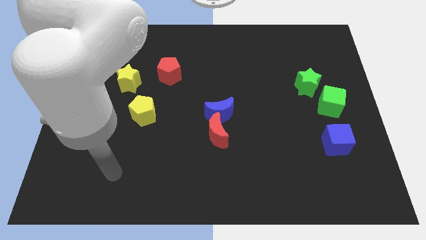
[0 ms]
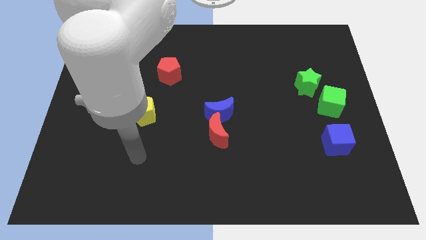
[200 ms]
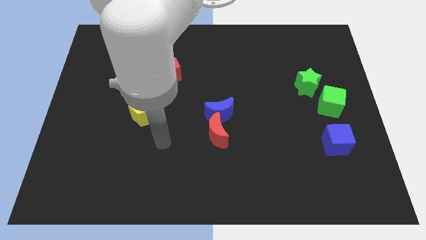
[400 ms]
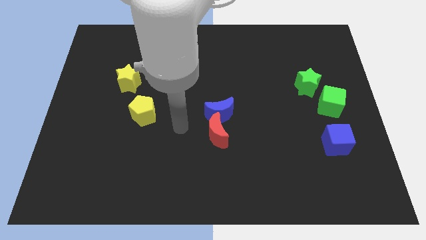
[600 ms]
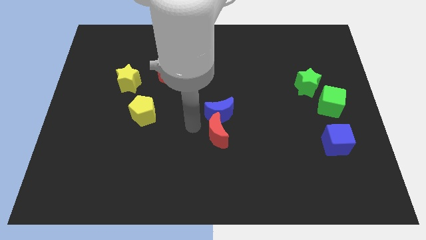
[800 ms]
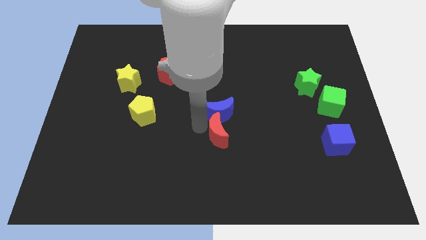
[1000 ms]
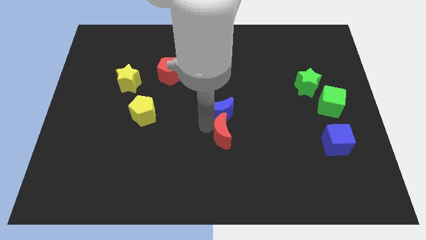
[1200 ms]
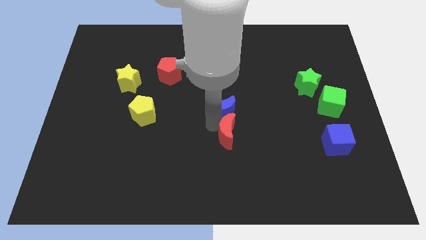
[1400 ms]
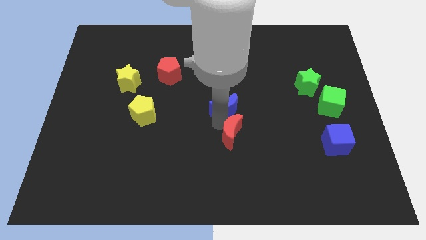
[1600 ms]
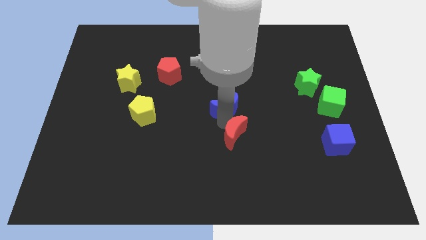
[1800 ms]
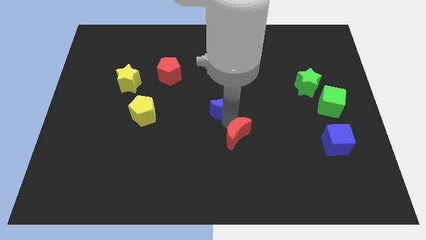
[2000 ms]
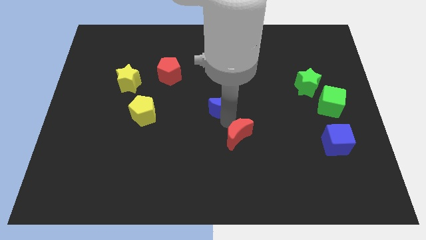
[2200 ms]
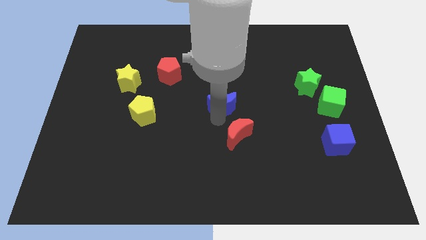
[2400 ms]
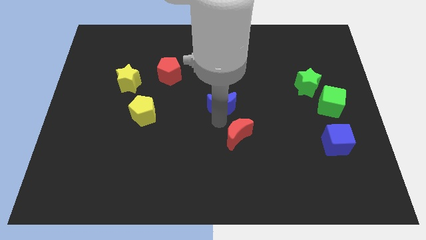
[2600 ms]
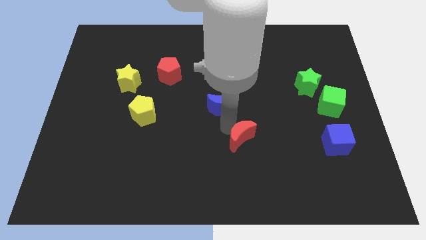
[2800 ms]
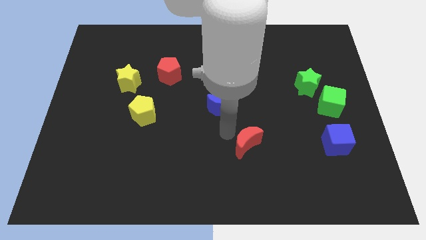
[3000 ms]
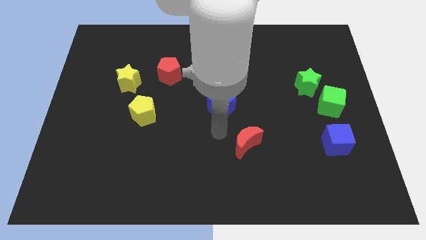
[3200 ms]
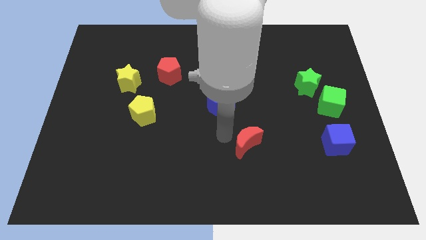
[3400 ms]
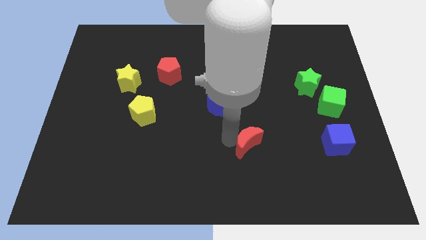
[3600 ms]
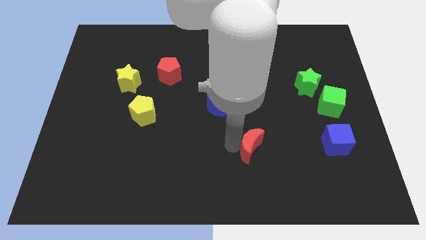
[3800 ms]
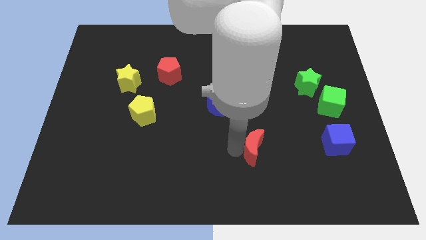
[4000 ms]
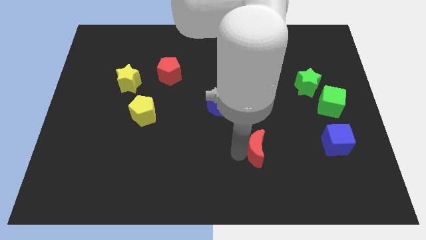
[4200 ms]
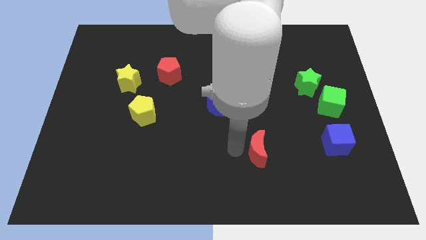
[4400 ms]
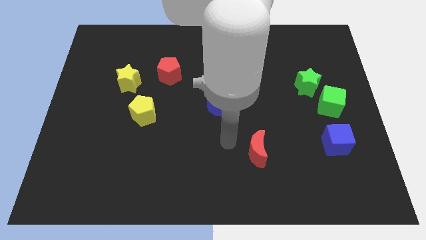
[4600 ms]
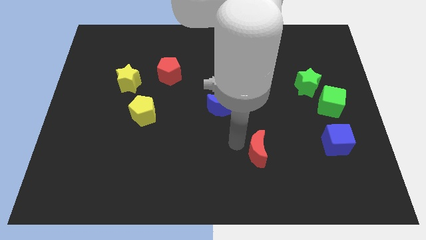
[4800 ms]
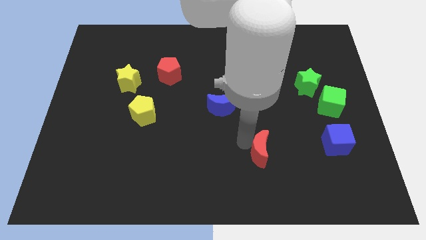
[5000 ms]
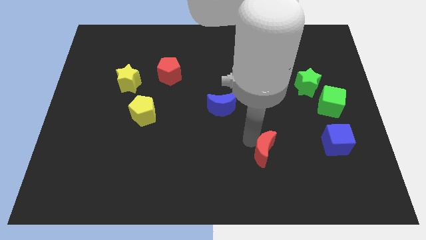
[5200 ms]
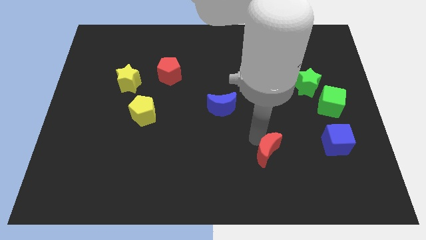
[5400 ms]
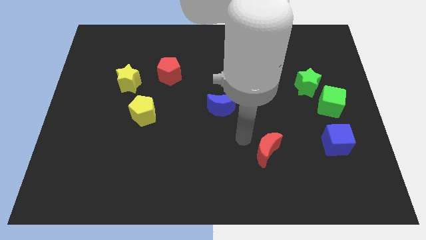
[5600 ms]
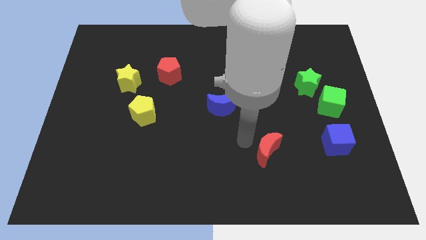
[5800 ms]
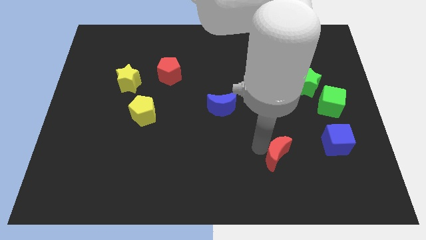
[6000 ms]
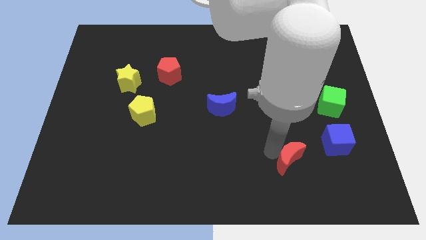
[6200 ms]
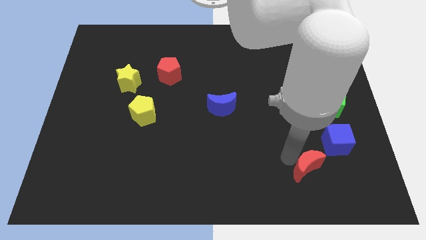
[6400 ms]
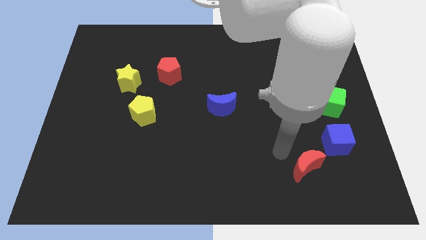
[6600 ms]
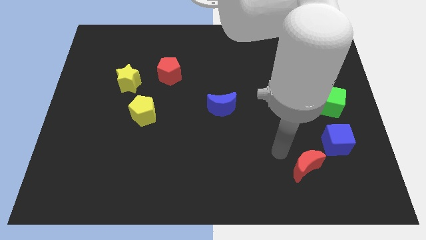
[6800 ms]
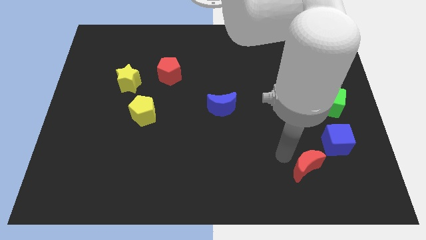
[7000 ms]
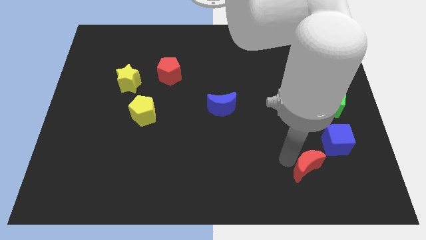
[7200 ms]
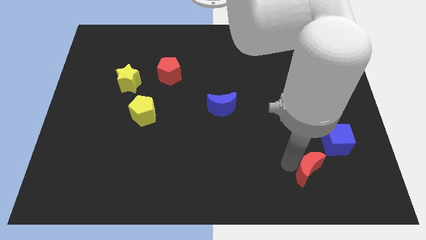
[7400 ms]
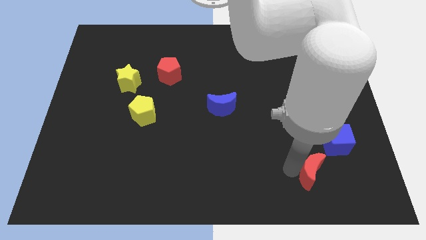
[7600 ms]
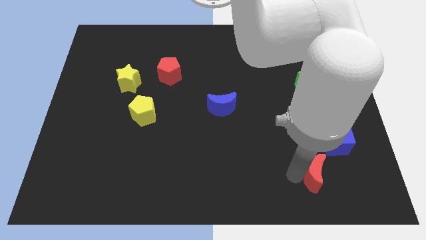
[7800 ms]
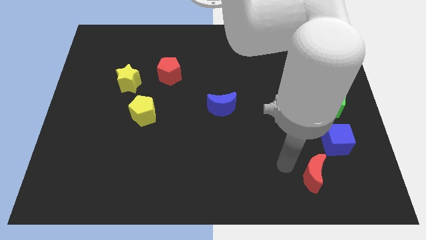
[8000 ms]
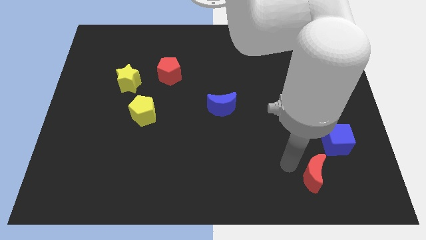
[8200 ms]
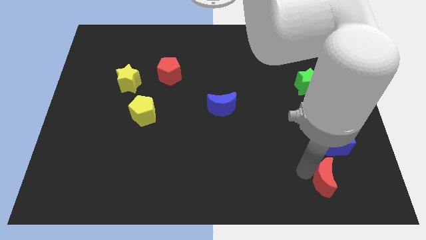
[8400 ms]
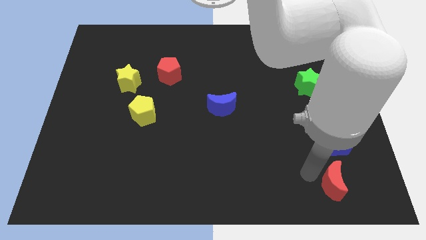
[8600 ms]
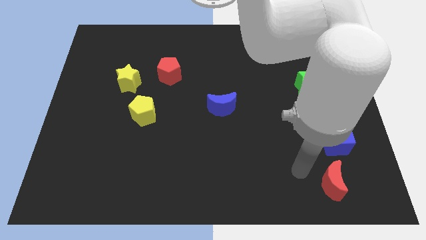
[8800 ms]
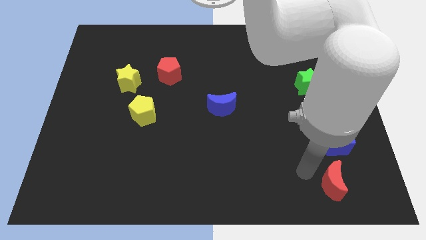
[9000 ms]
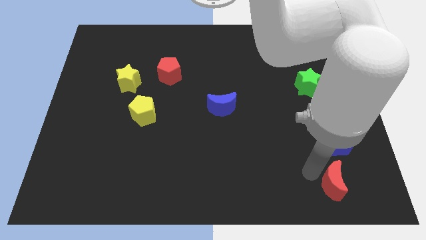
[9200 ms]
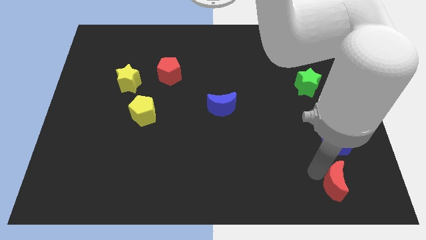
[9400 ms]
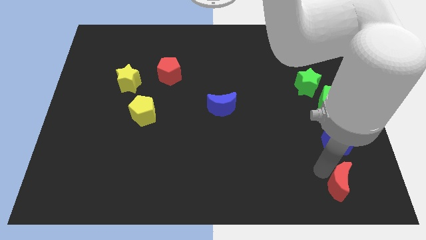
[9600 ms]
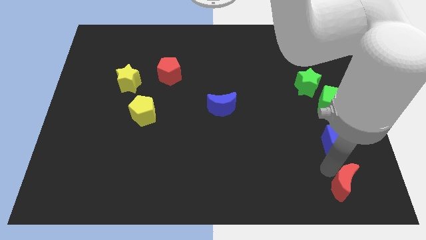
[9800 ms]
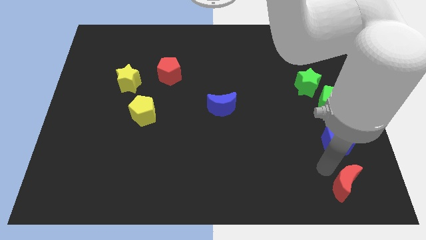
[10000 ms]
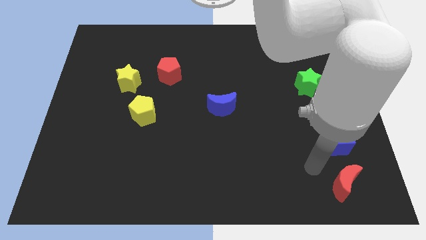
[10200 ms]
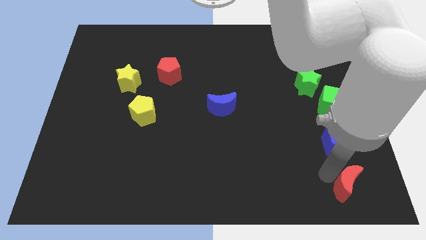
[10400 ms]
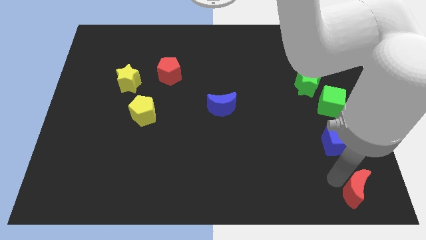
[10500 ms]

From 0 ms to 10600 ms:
move the red moon to the bottom right corner

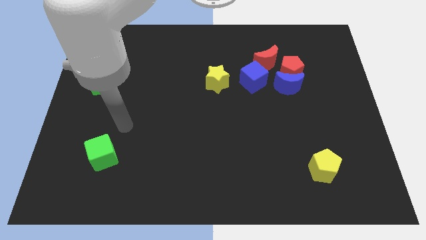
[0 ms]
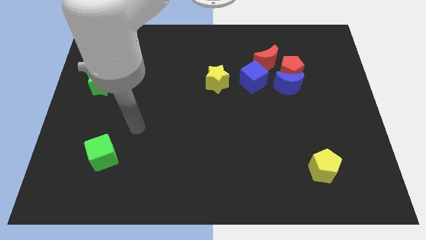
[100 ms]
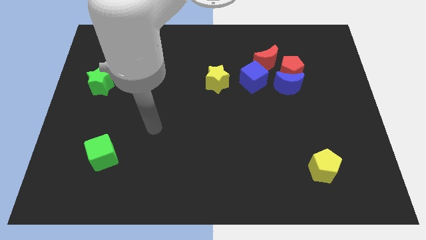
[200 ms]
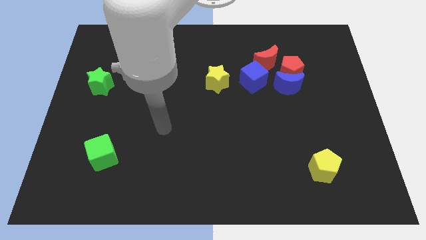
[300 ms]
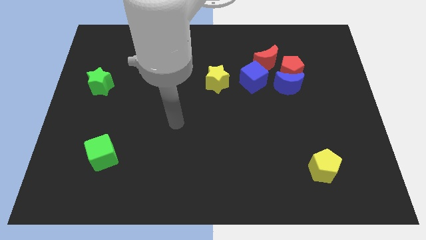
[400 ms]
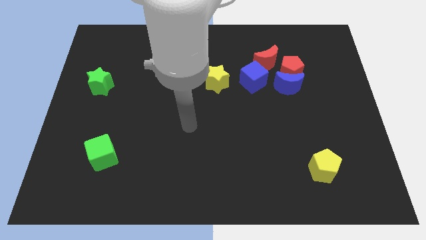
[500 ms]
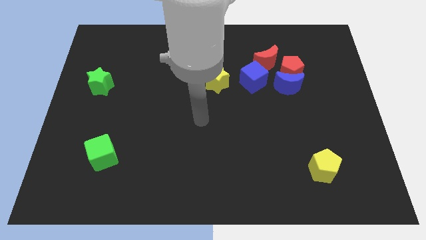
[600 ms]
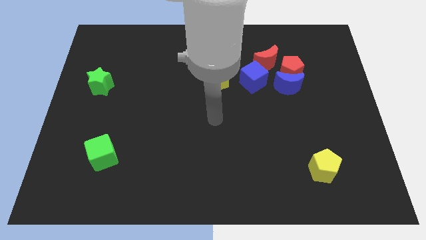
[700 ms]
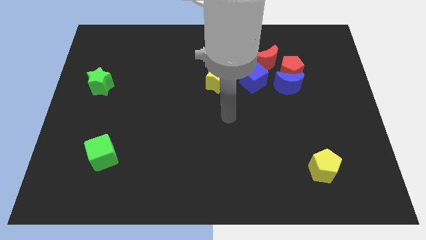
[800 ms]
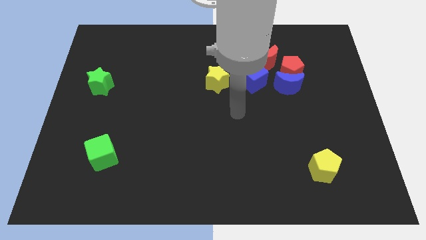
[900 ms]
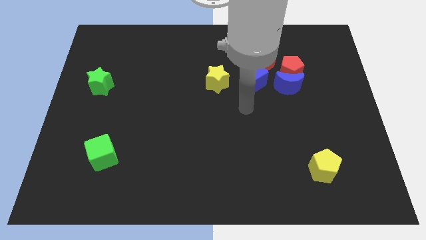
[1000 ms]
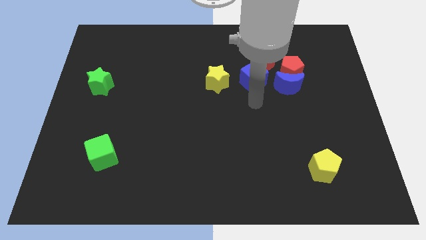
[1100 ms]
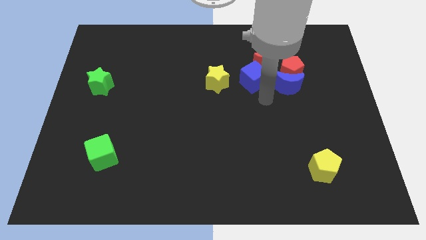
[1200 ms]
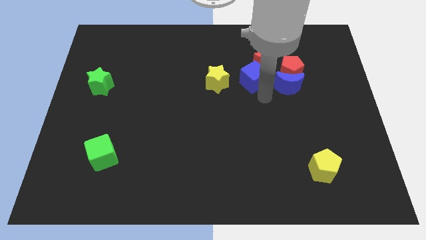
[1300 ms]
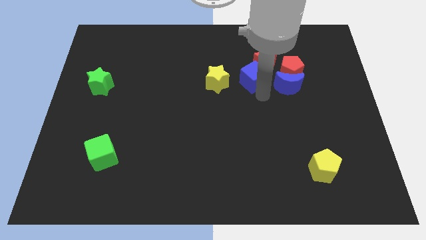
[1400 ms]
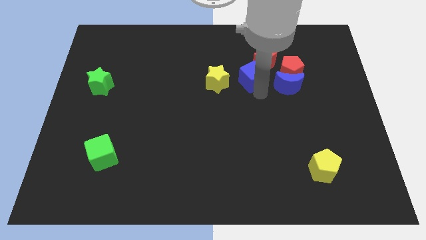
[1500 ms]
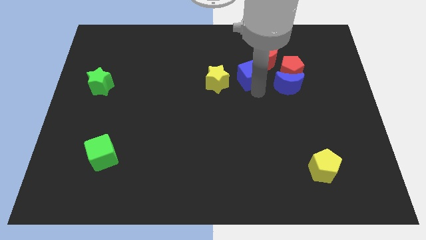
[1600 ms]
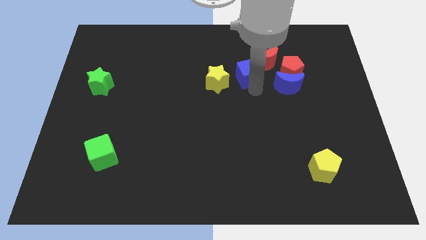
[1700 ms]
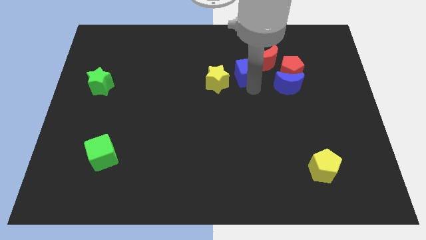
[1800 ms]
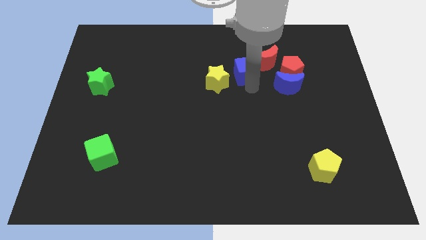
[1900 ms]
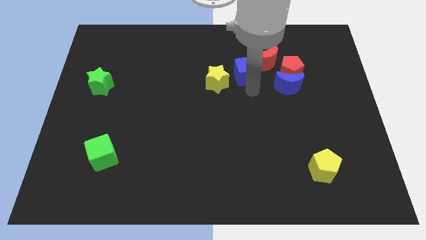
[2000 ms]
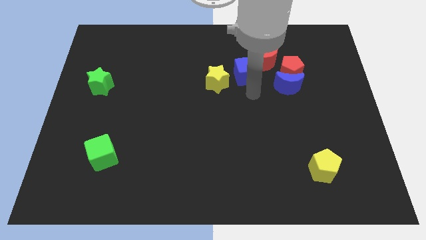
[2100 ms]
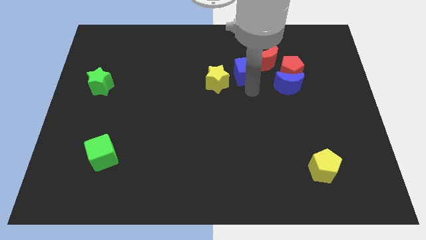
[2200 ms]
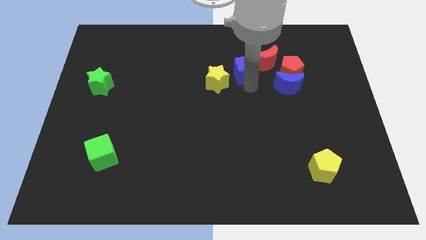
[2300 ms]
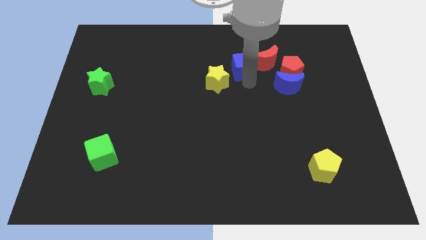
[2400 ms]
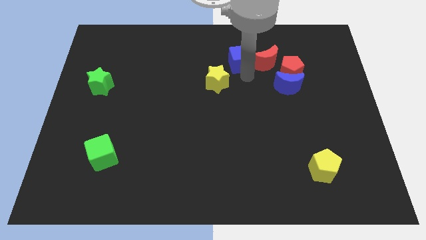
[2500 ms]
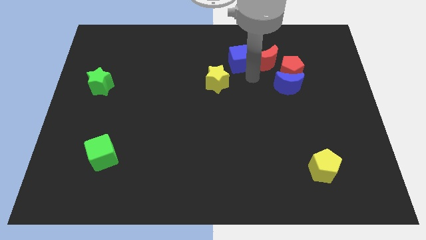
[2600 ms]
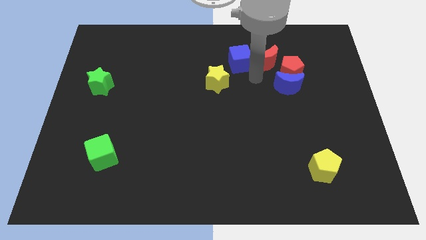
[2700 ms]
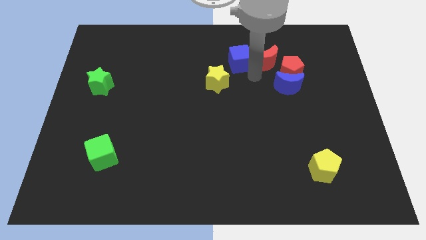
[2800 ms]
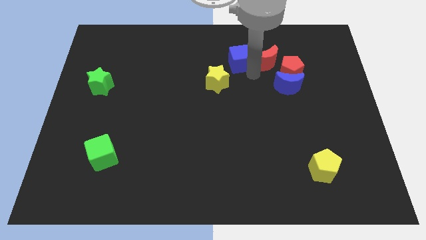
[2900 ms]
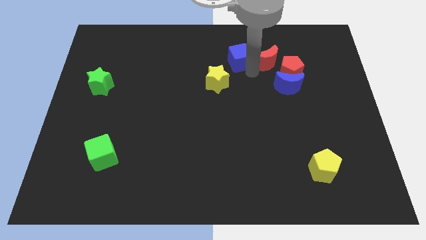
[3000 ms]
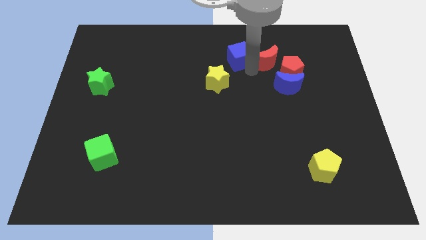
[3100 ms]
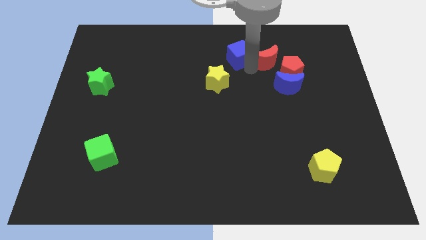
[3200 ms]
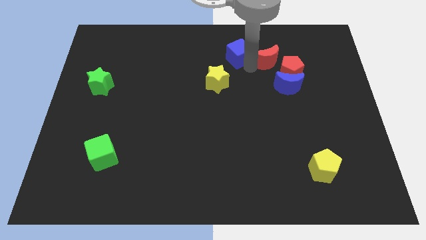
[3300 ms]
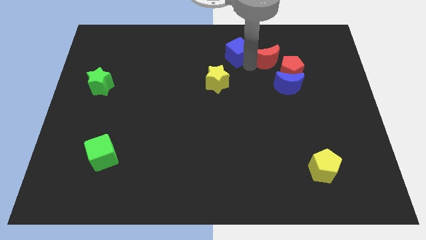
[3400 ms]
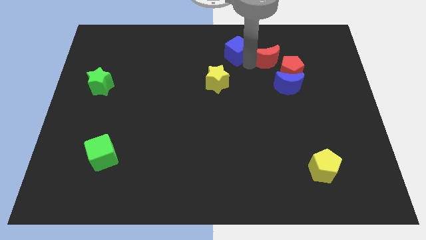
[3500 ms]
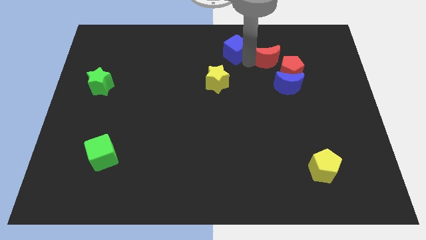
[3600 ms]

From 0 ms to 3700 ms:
put the blue cube to the top side
